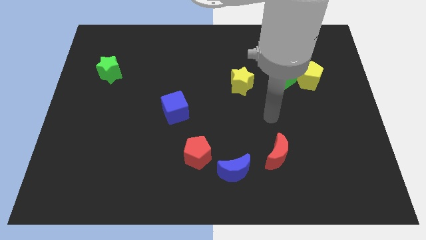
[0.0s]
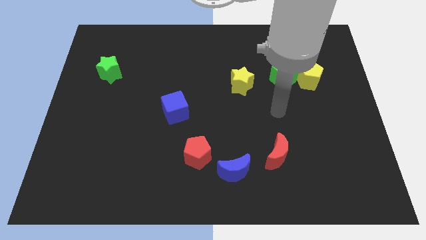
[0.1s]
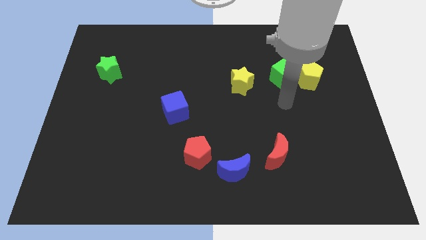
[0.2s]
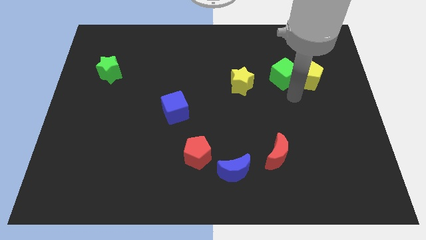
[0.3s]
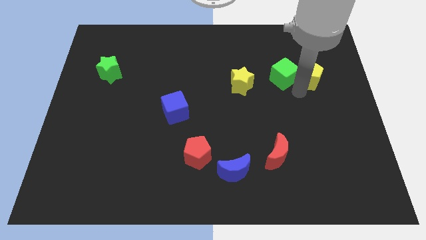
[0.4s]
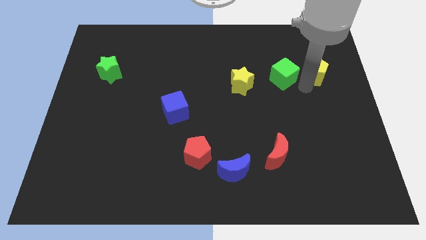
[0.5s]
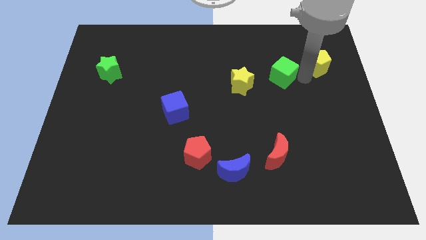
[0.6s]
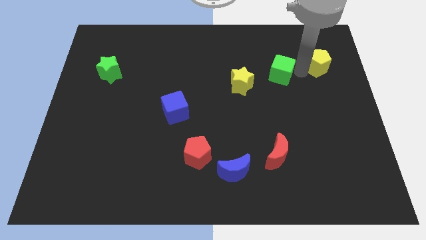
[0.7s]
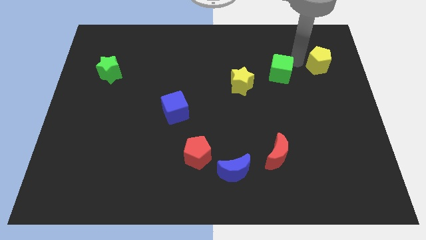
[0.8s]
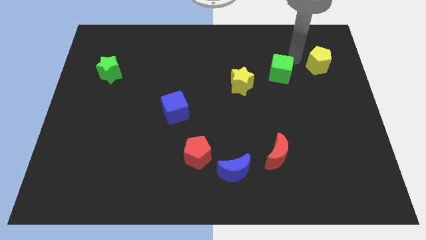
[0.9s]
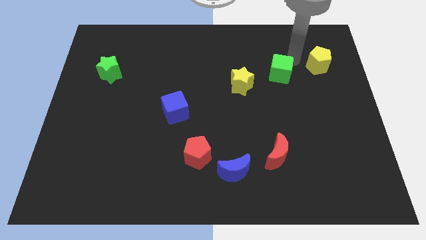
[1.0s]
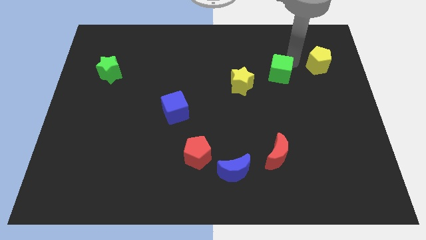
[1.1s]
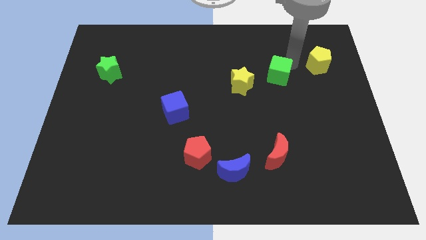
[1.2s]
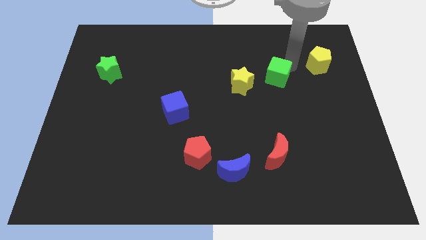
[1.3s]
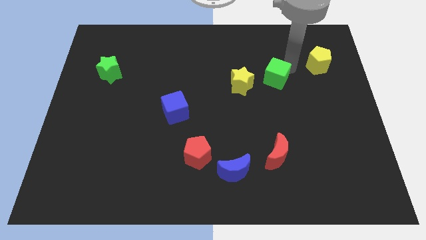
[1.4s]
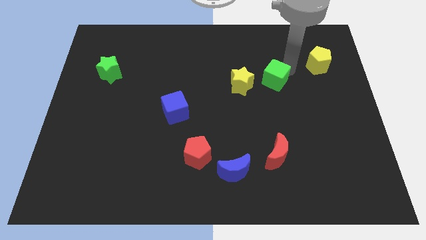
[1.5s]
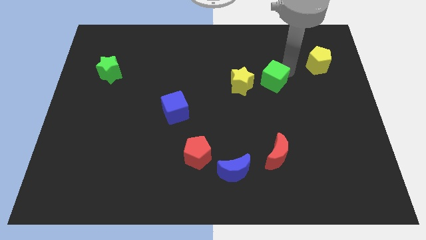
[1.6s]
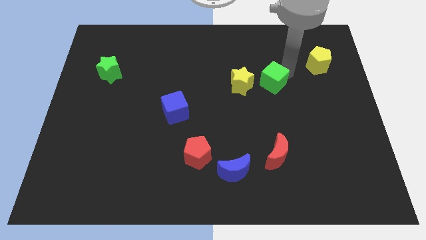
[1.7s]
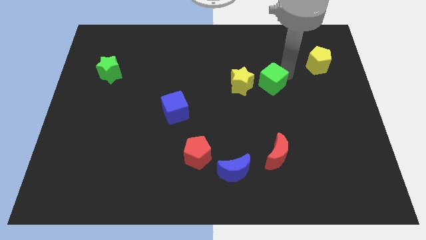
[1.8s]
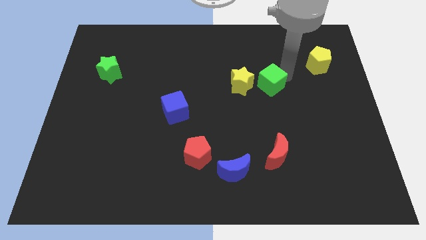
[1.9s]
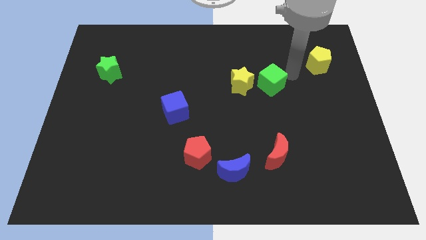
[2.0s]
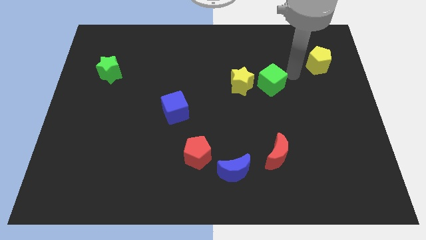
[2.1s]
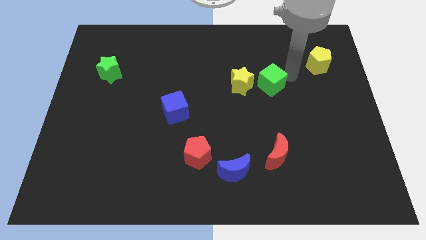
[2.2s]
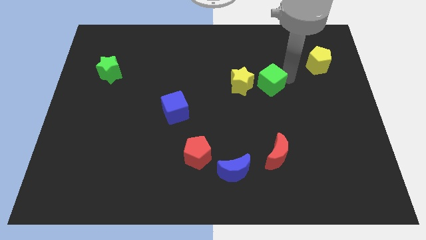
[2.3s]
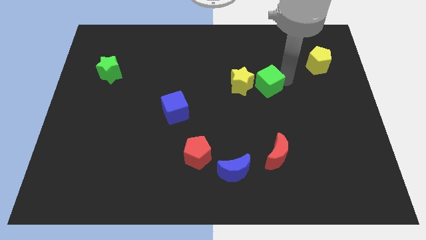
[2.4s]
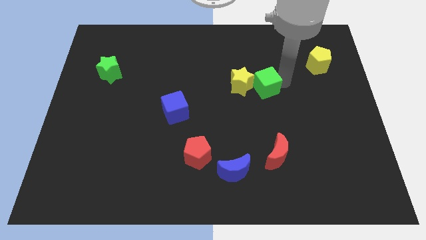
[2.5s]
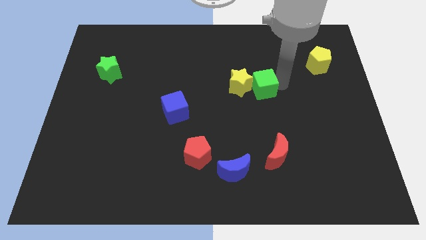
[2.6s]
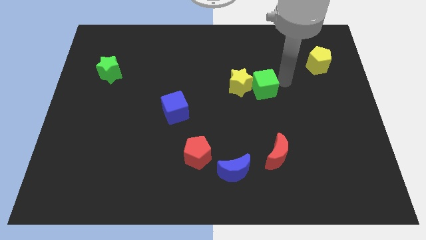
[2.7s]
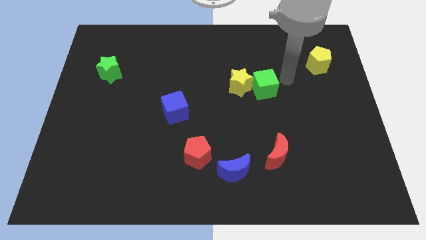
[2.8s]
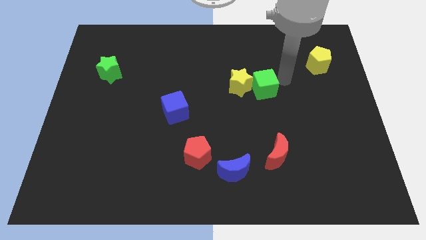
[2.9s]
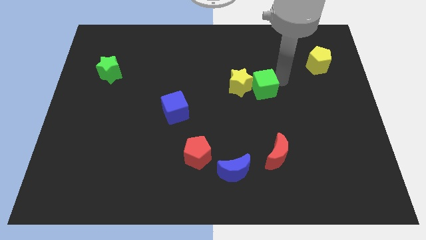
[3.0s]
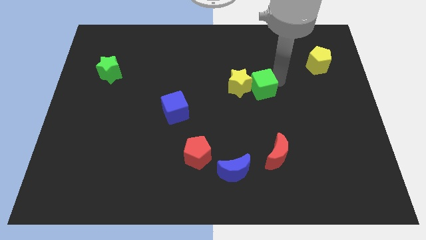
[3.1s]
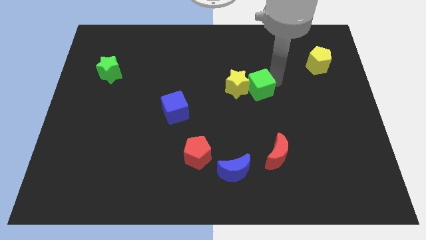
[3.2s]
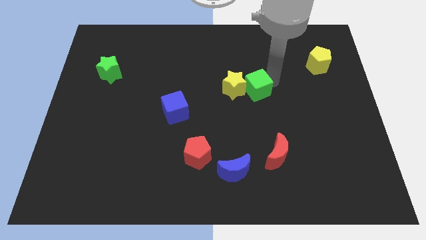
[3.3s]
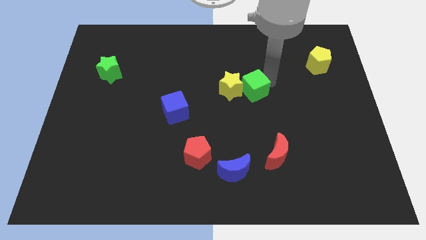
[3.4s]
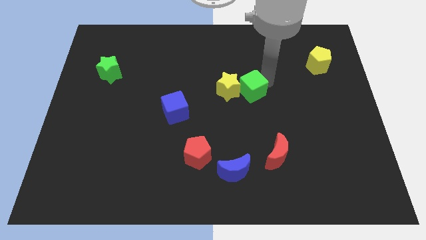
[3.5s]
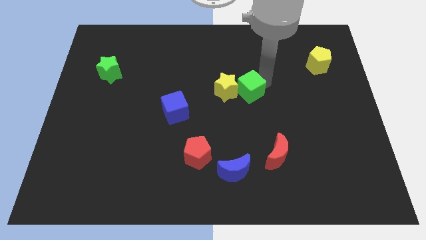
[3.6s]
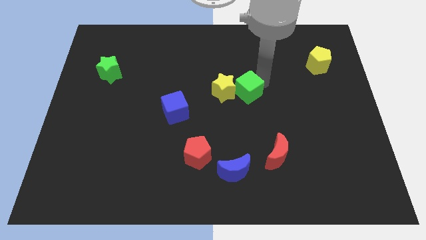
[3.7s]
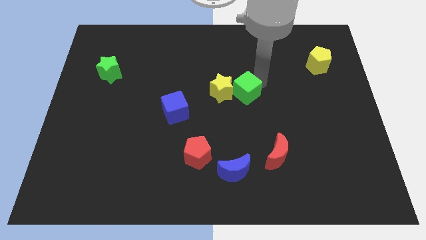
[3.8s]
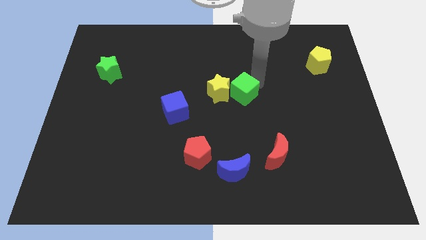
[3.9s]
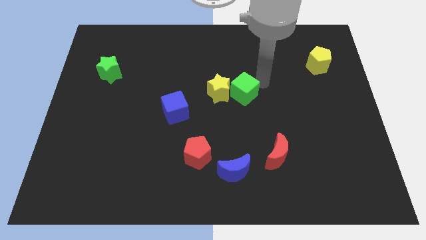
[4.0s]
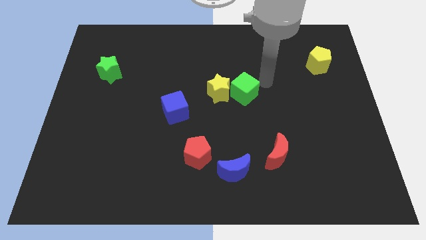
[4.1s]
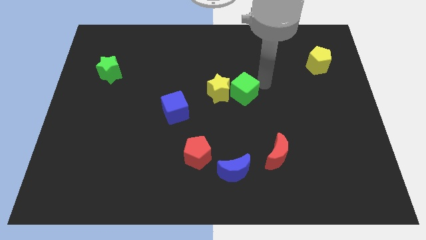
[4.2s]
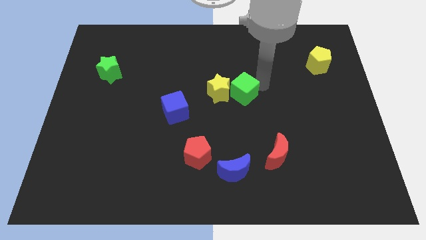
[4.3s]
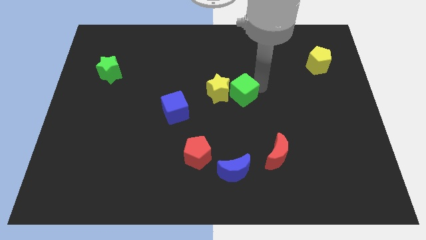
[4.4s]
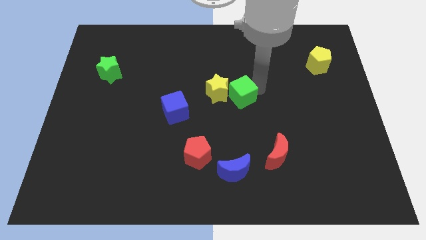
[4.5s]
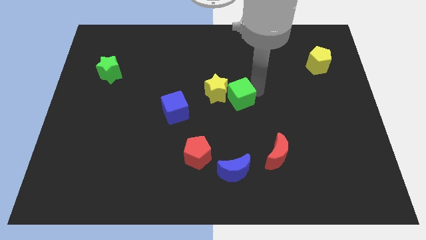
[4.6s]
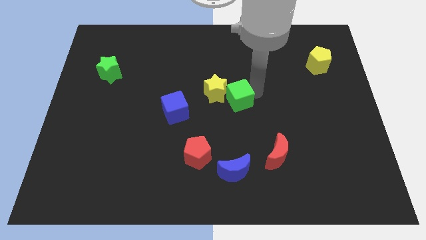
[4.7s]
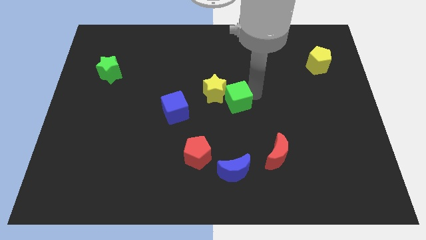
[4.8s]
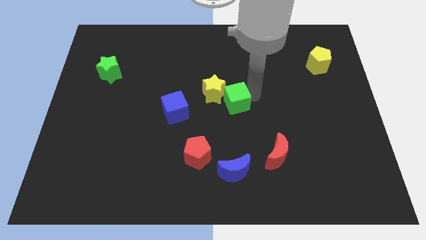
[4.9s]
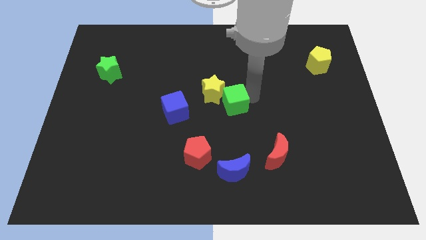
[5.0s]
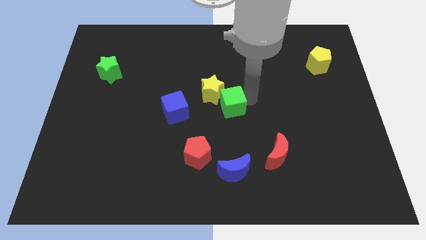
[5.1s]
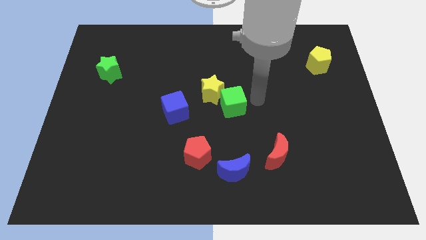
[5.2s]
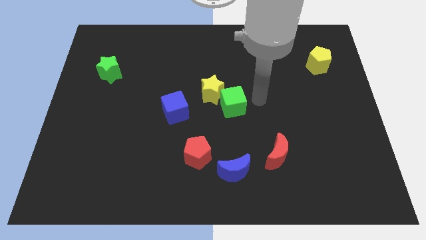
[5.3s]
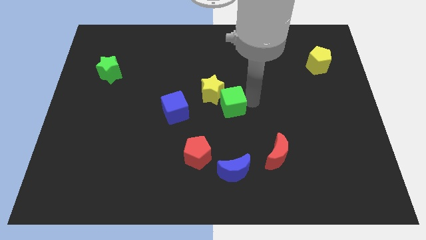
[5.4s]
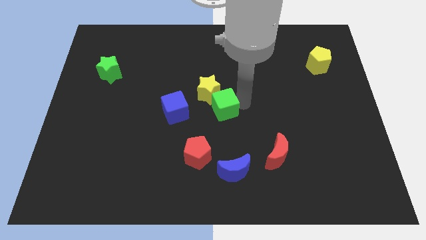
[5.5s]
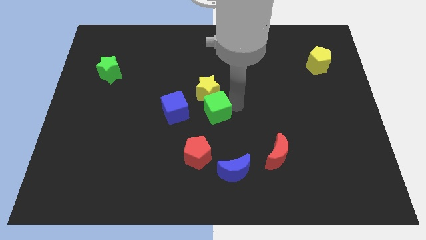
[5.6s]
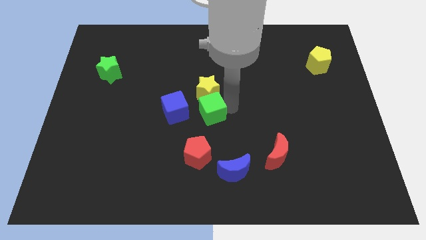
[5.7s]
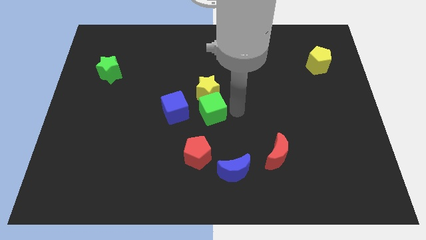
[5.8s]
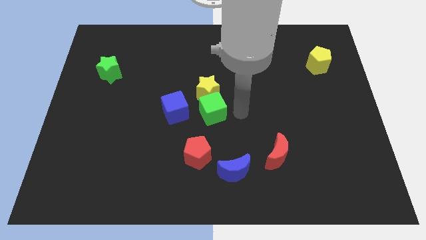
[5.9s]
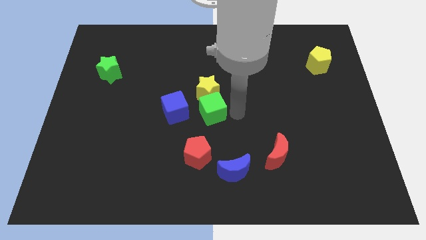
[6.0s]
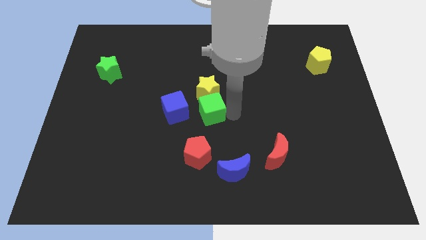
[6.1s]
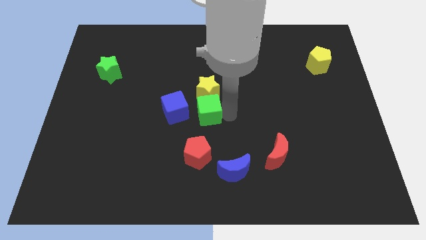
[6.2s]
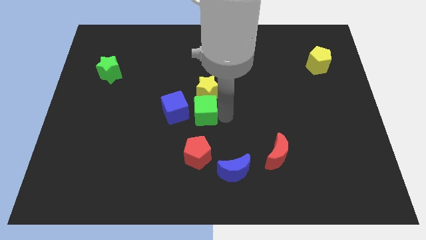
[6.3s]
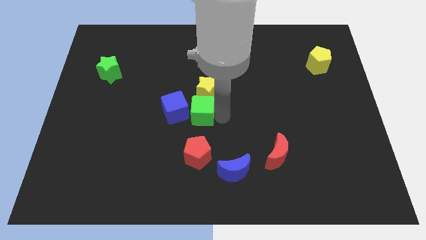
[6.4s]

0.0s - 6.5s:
move the green cube close to the blue cube
